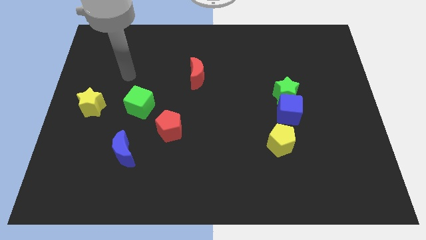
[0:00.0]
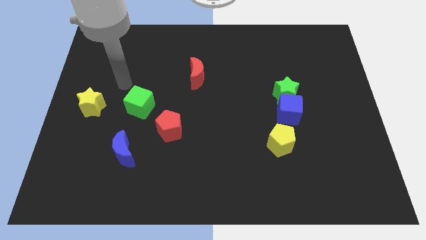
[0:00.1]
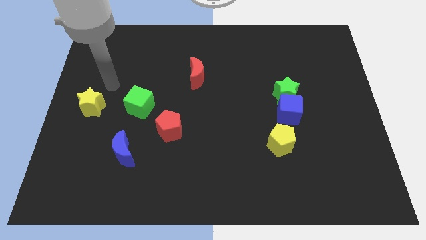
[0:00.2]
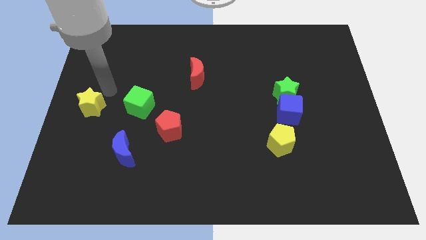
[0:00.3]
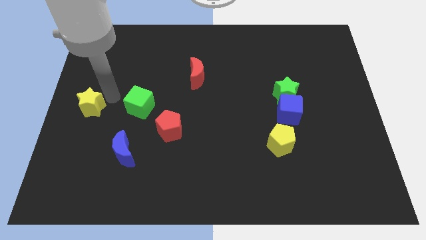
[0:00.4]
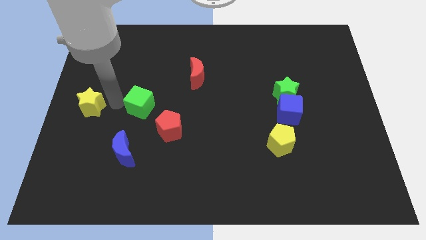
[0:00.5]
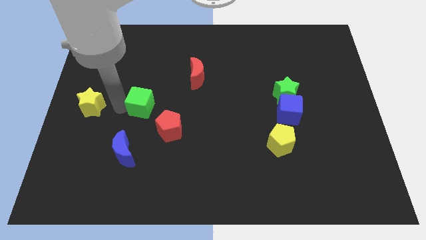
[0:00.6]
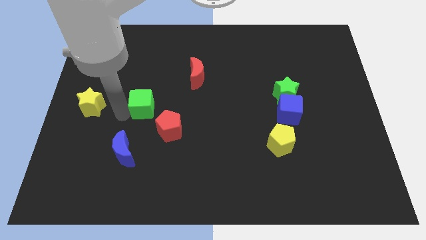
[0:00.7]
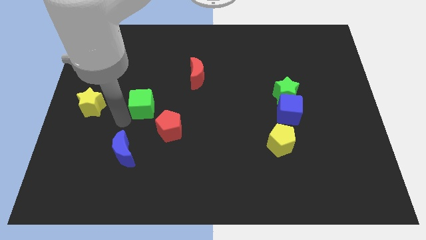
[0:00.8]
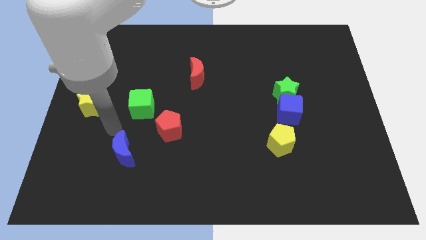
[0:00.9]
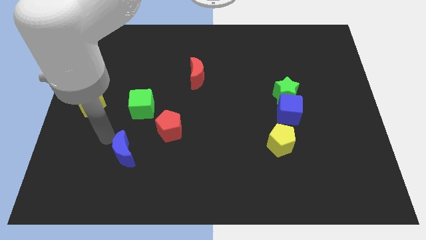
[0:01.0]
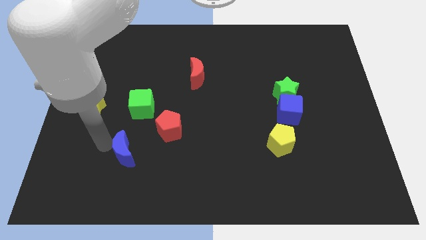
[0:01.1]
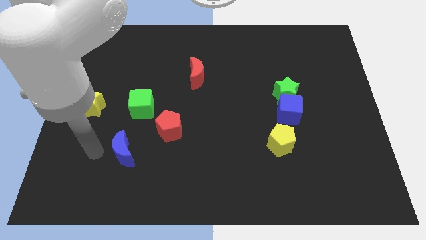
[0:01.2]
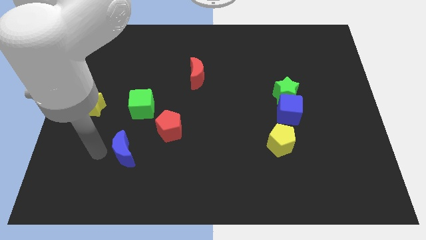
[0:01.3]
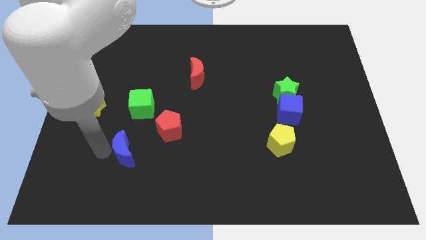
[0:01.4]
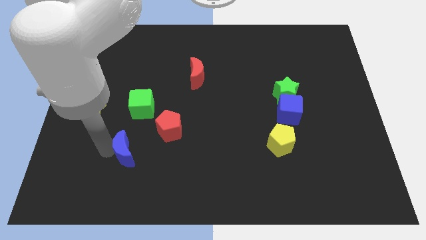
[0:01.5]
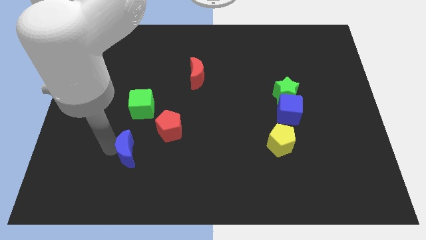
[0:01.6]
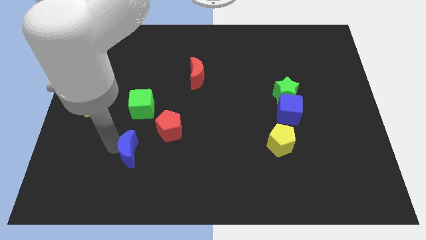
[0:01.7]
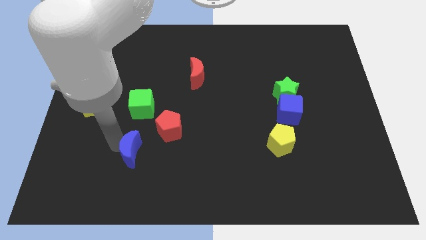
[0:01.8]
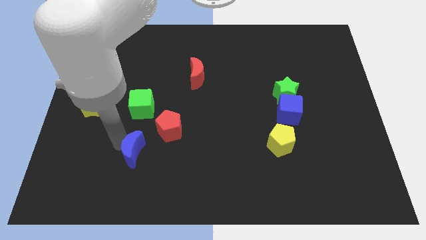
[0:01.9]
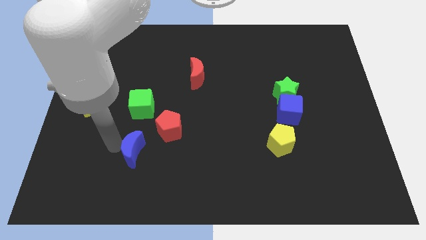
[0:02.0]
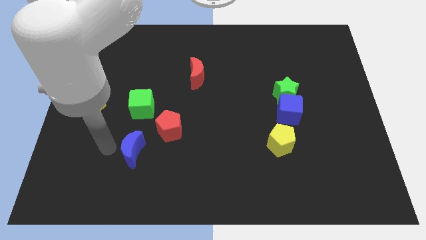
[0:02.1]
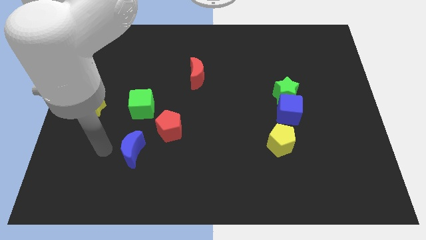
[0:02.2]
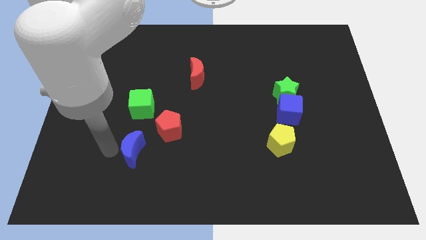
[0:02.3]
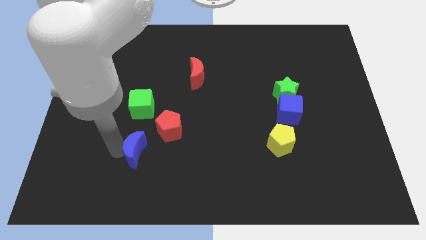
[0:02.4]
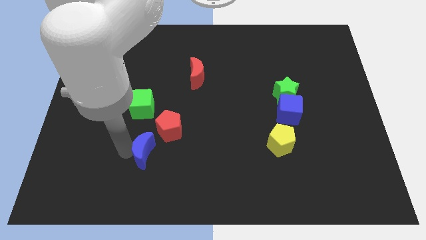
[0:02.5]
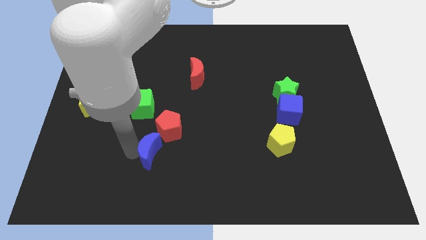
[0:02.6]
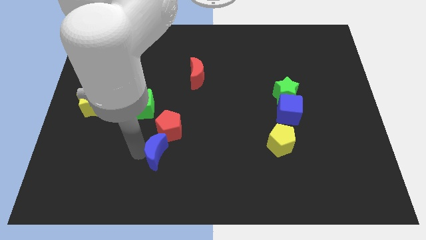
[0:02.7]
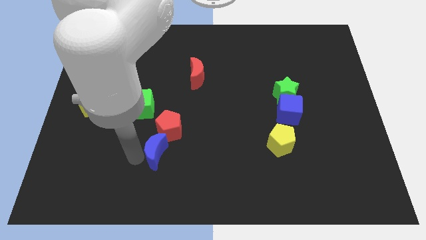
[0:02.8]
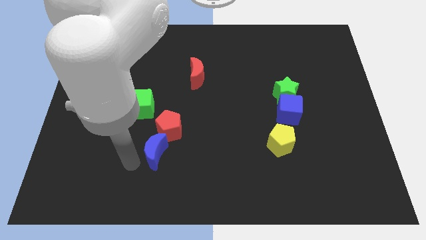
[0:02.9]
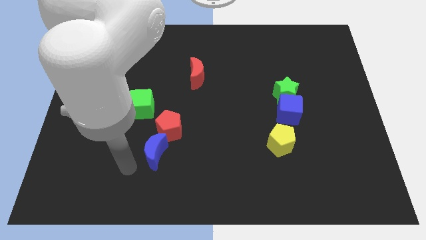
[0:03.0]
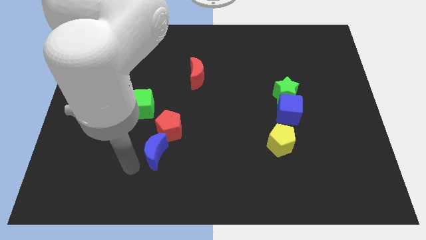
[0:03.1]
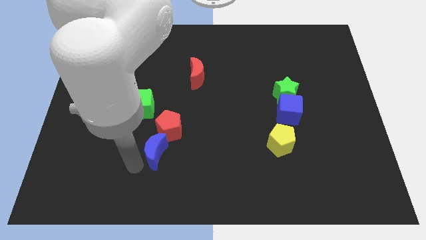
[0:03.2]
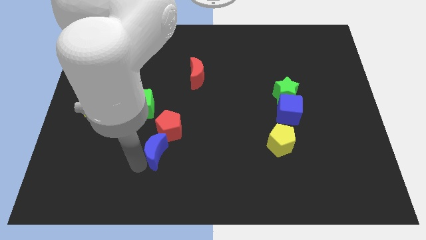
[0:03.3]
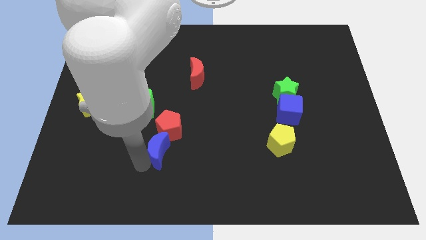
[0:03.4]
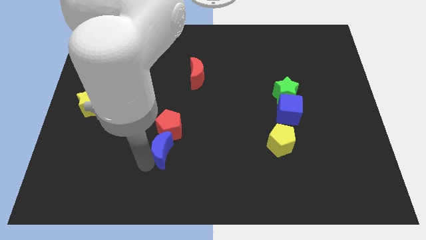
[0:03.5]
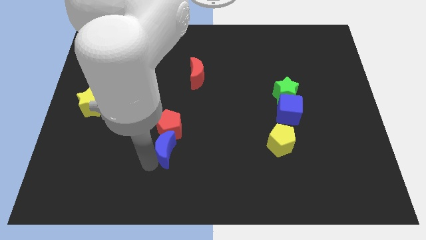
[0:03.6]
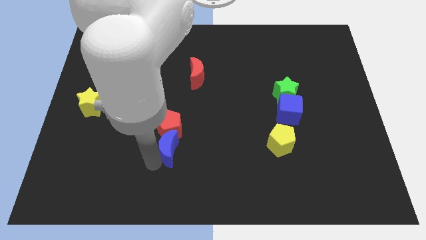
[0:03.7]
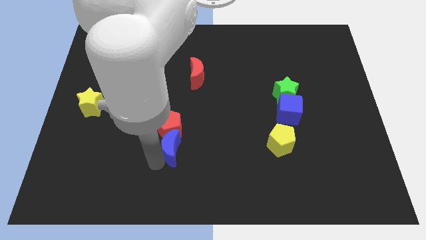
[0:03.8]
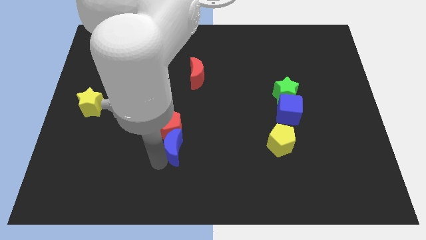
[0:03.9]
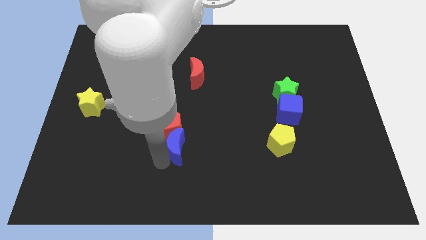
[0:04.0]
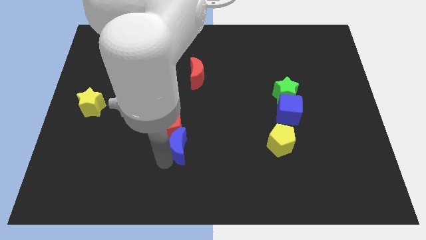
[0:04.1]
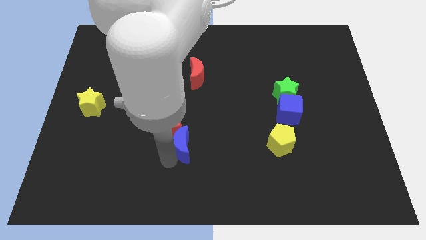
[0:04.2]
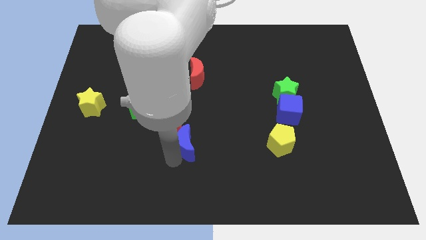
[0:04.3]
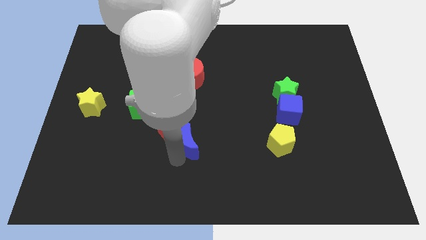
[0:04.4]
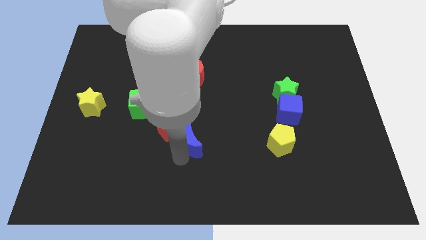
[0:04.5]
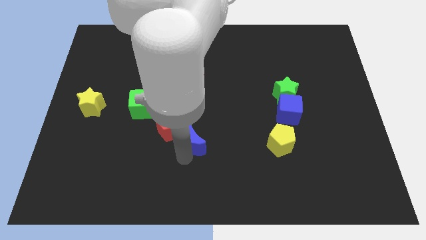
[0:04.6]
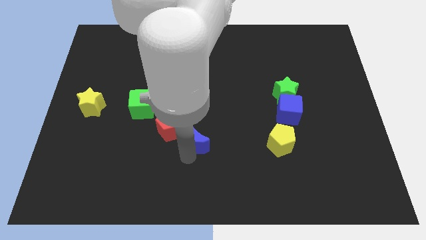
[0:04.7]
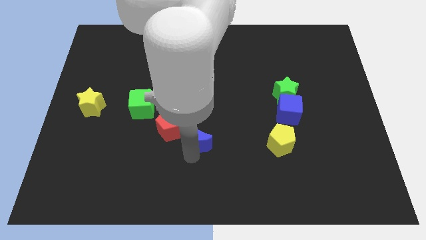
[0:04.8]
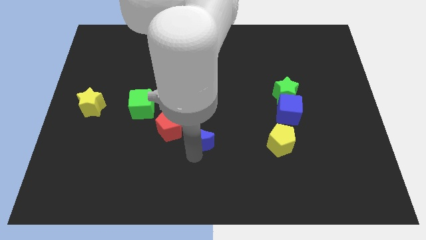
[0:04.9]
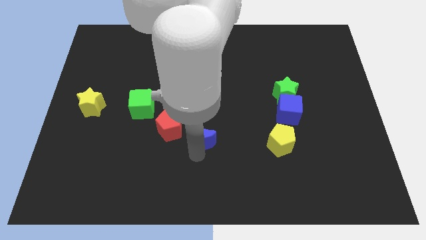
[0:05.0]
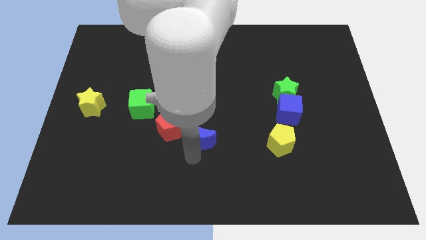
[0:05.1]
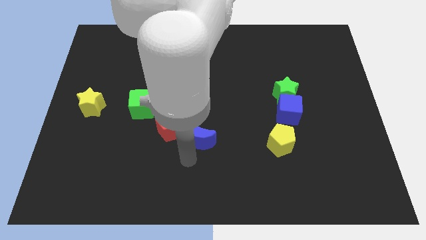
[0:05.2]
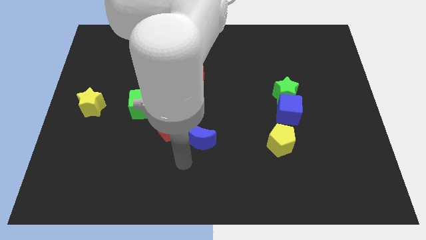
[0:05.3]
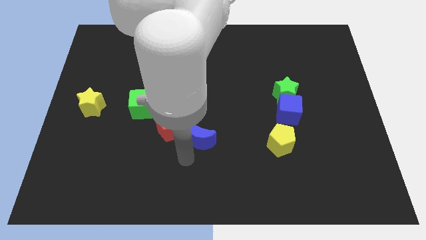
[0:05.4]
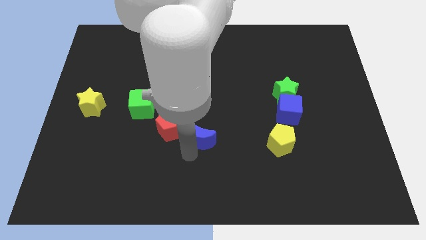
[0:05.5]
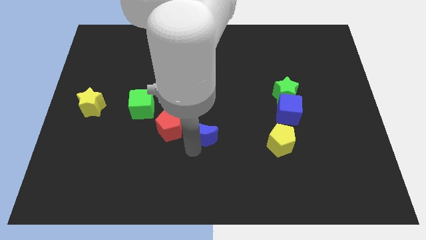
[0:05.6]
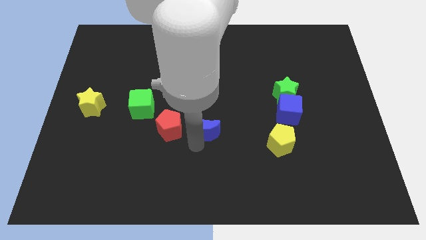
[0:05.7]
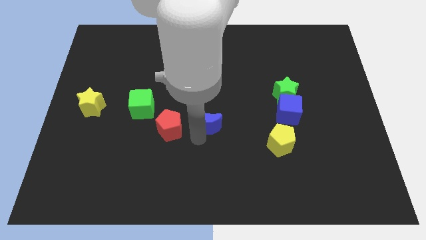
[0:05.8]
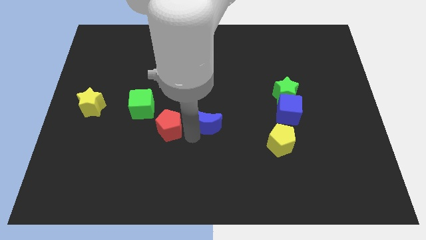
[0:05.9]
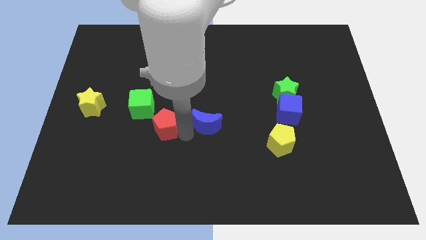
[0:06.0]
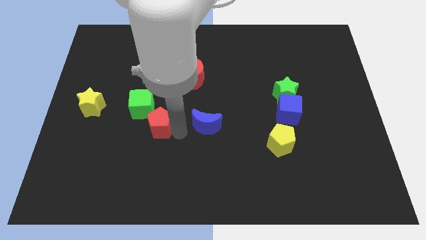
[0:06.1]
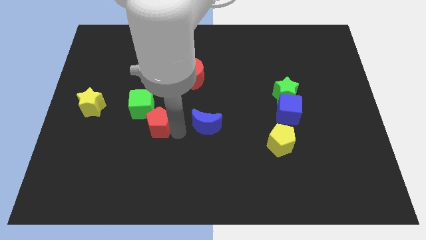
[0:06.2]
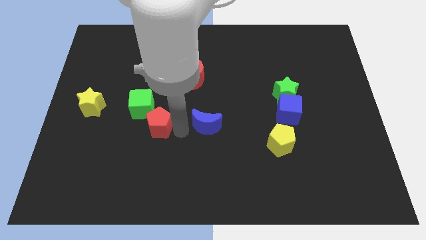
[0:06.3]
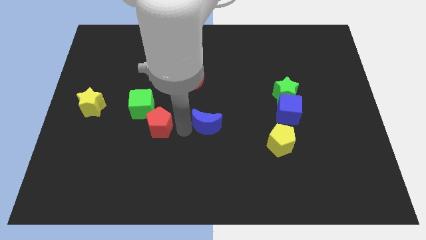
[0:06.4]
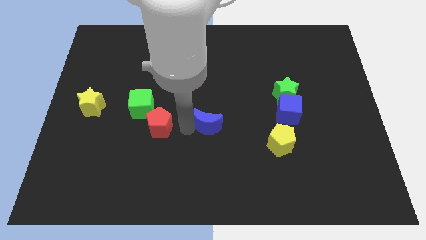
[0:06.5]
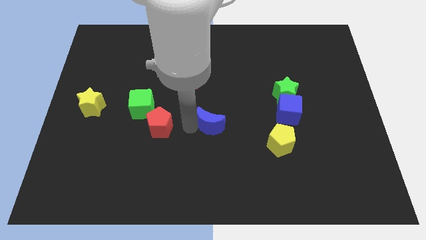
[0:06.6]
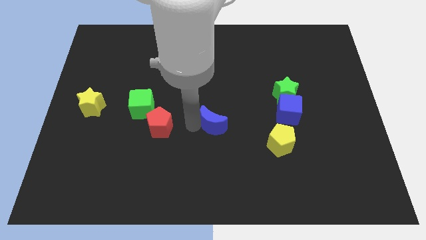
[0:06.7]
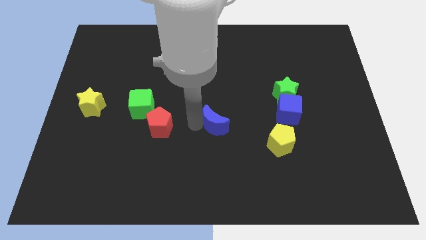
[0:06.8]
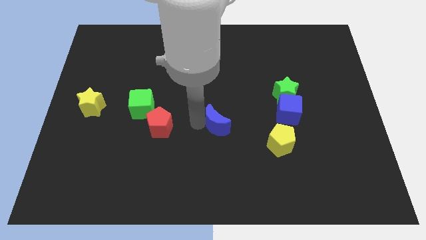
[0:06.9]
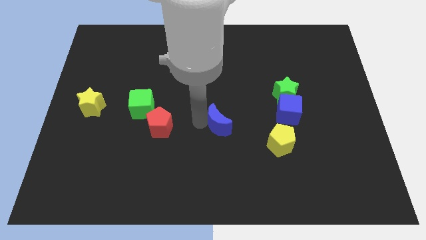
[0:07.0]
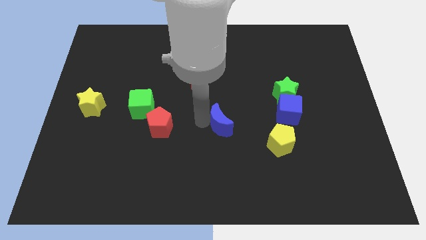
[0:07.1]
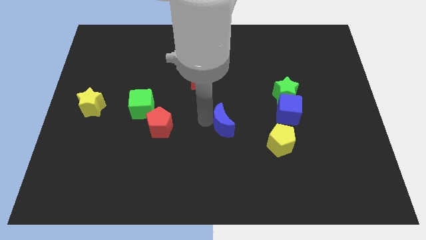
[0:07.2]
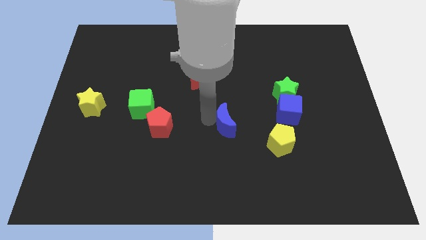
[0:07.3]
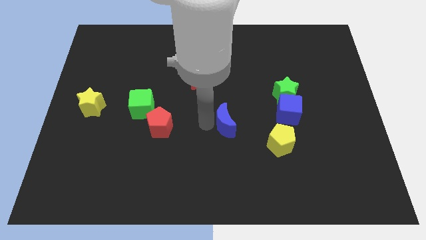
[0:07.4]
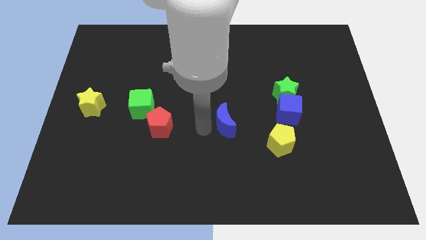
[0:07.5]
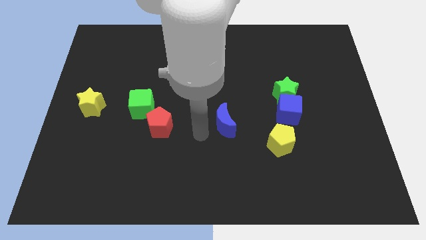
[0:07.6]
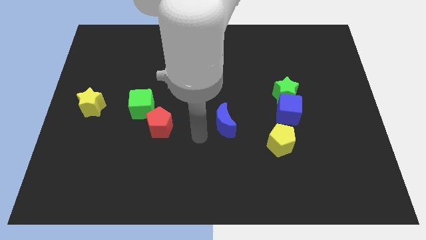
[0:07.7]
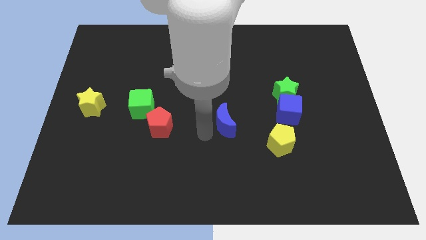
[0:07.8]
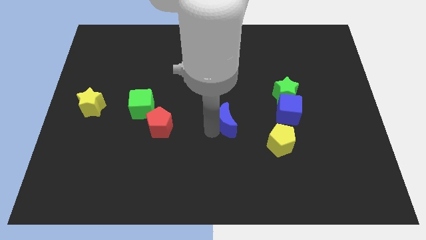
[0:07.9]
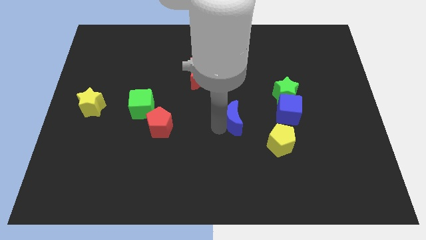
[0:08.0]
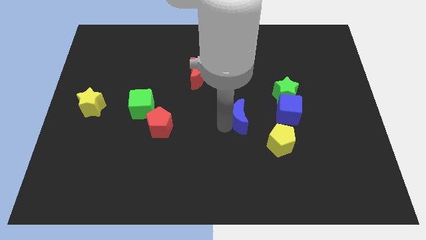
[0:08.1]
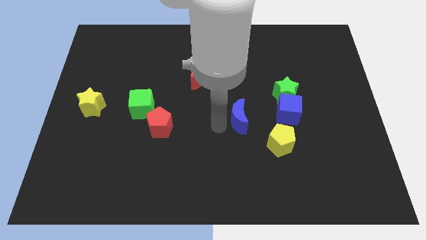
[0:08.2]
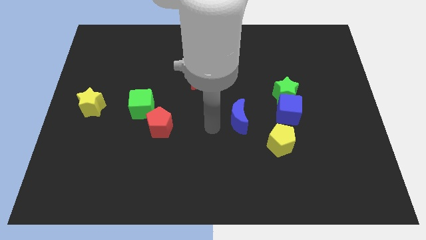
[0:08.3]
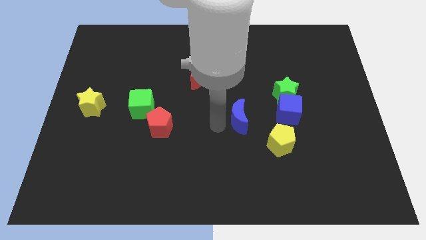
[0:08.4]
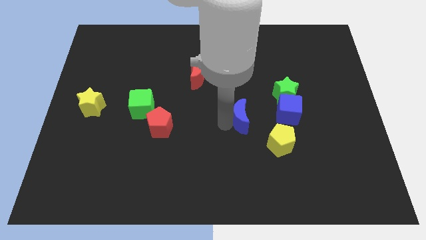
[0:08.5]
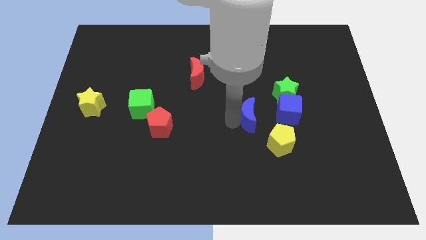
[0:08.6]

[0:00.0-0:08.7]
push the blue moon to the bottom left of the green star
